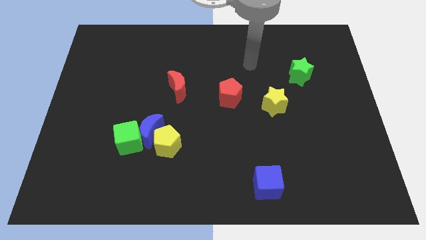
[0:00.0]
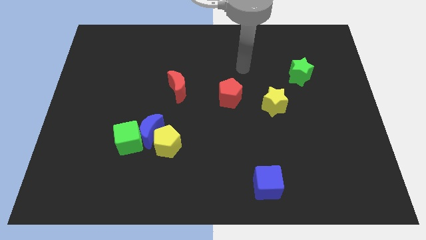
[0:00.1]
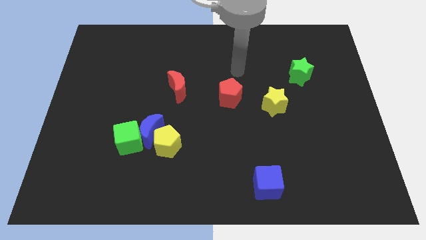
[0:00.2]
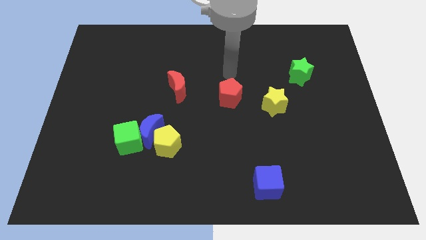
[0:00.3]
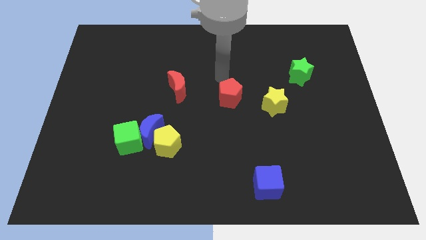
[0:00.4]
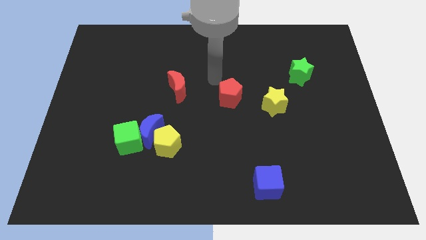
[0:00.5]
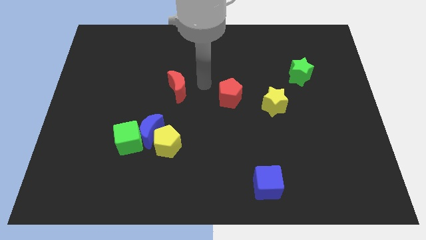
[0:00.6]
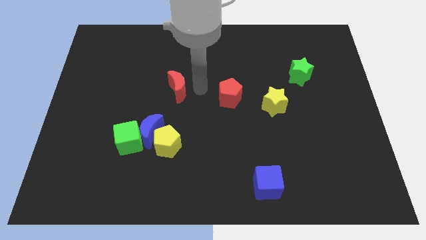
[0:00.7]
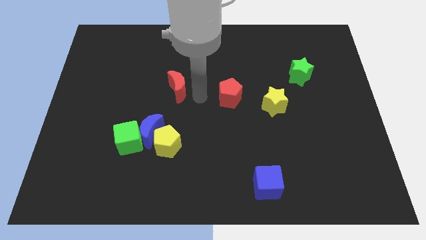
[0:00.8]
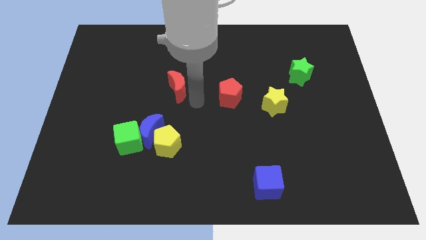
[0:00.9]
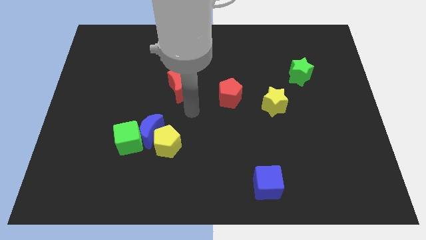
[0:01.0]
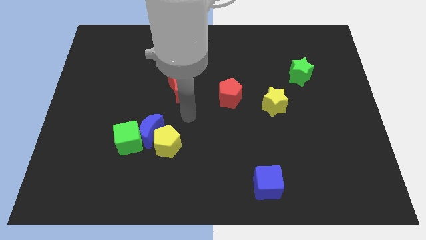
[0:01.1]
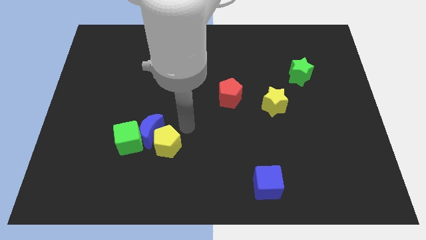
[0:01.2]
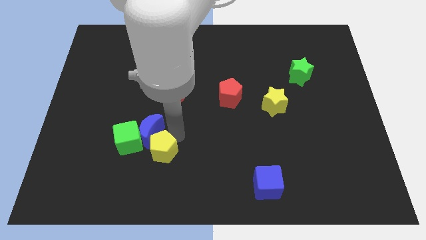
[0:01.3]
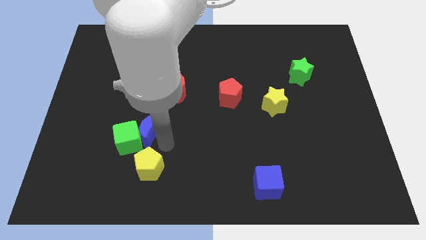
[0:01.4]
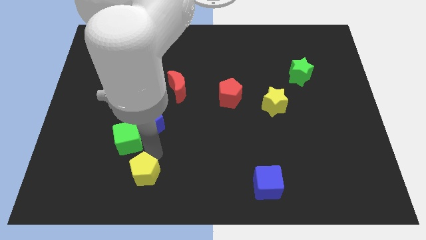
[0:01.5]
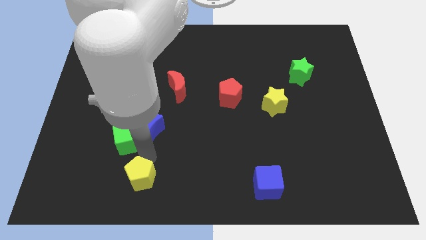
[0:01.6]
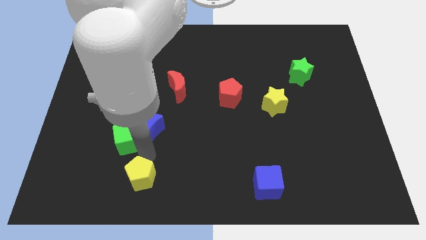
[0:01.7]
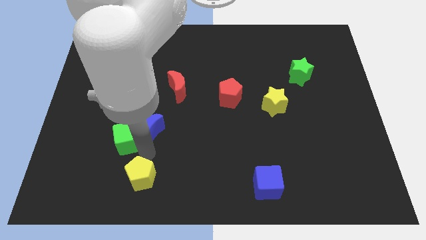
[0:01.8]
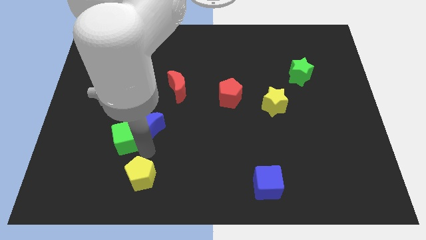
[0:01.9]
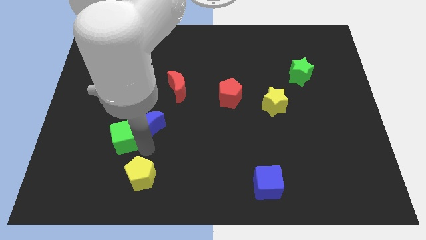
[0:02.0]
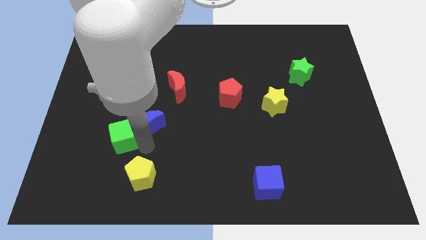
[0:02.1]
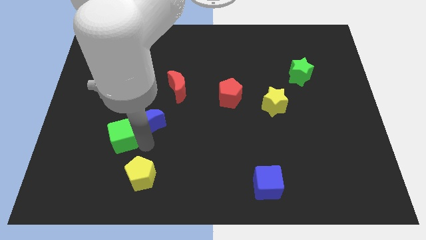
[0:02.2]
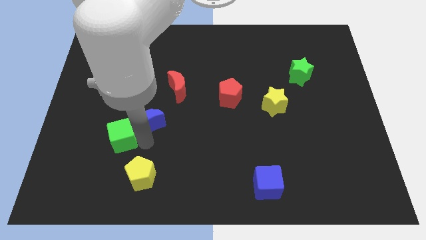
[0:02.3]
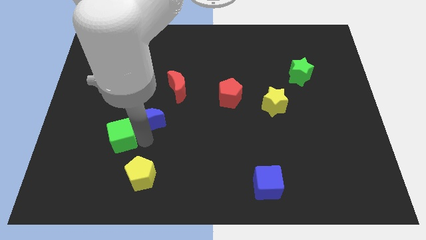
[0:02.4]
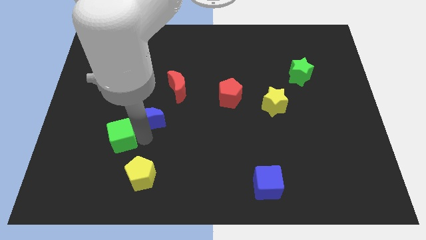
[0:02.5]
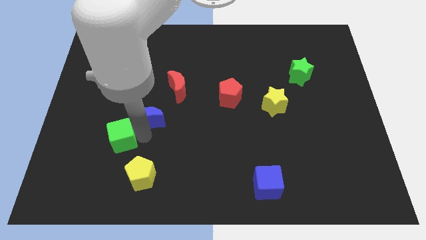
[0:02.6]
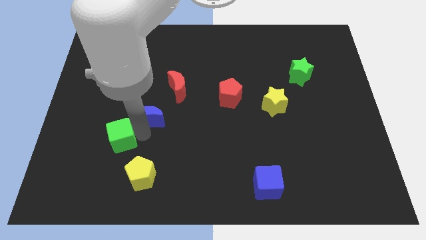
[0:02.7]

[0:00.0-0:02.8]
separate the blue moon from the yellow pentagon and green cube

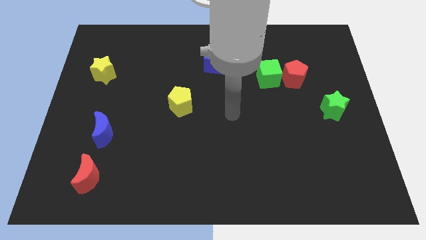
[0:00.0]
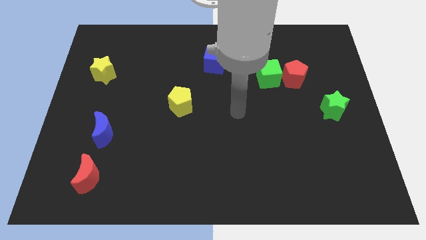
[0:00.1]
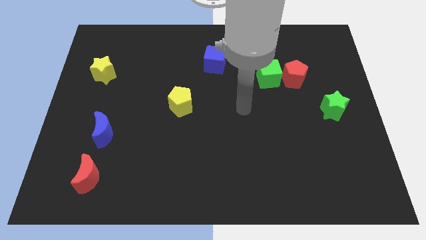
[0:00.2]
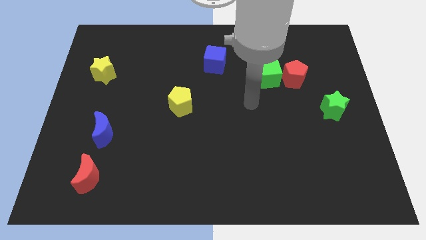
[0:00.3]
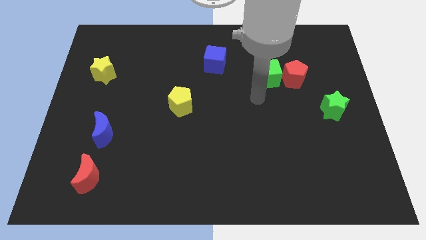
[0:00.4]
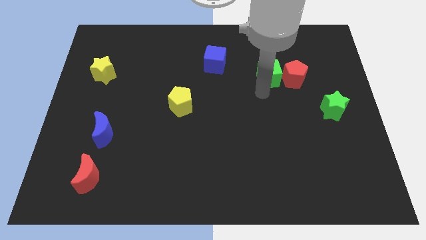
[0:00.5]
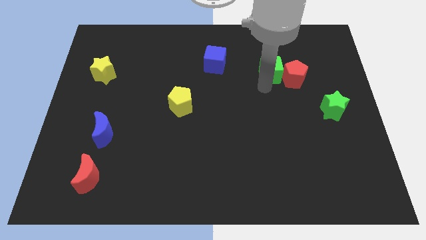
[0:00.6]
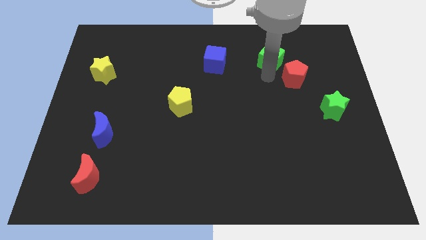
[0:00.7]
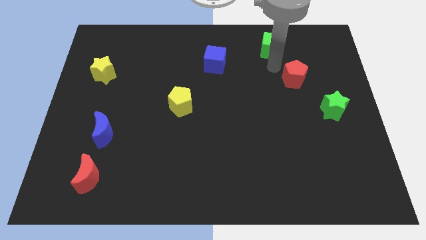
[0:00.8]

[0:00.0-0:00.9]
separate the red pentagon from the green cube

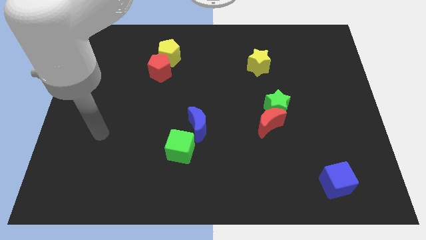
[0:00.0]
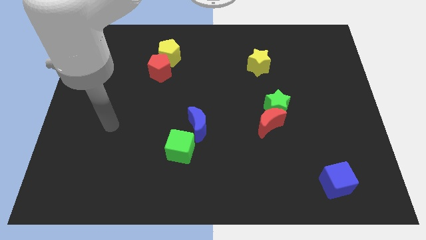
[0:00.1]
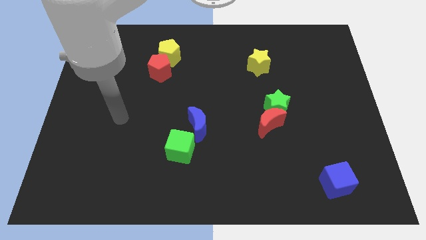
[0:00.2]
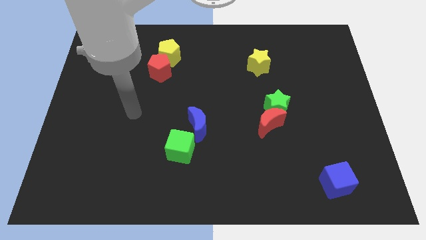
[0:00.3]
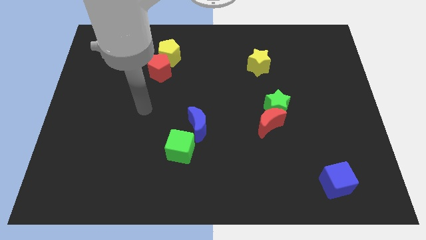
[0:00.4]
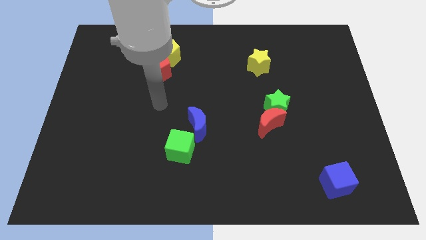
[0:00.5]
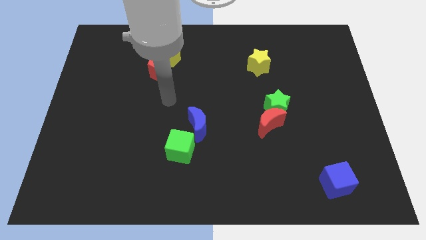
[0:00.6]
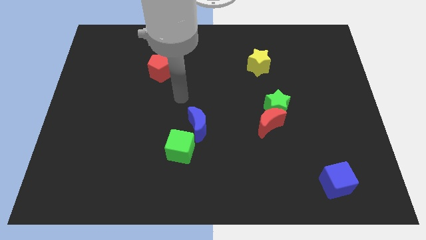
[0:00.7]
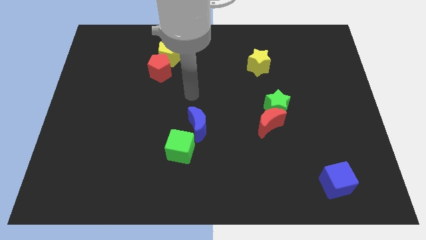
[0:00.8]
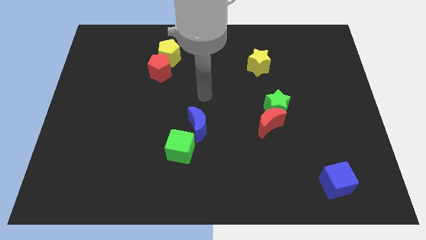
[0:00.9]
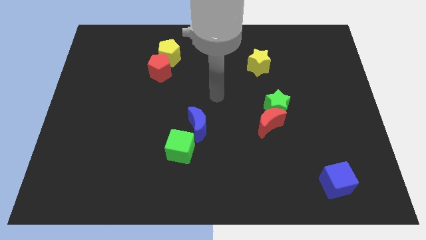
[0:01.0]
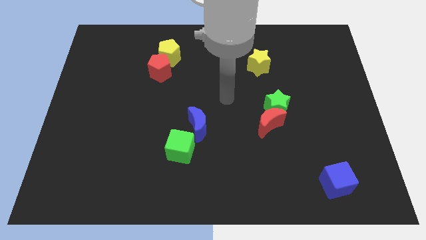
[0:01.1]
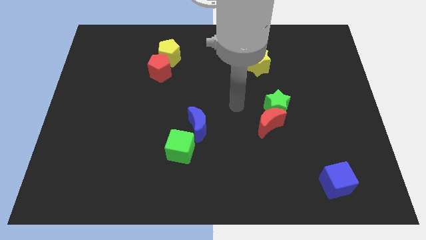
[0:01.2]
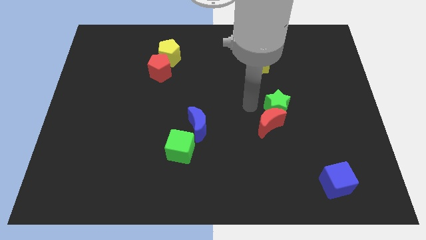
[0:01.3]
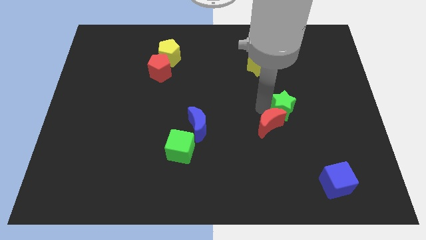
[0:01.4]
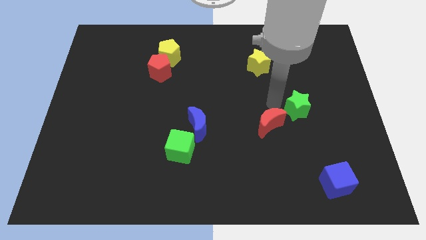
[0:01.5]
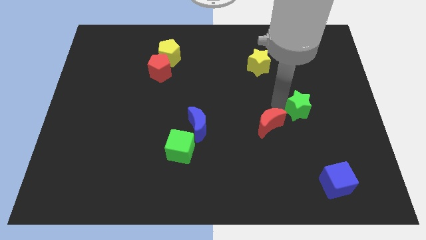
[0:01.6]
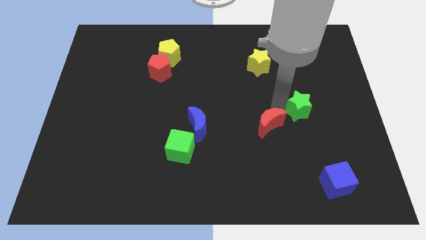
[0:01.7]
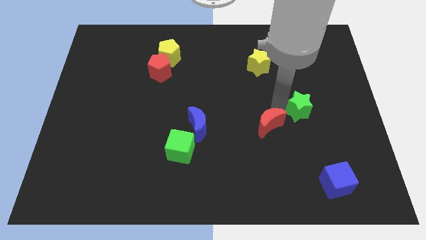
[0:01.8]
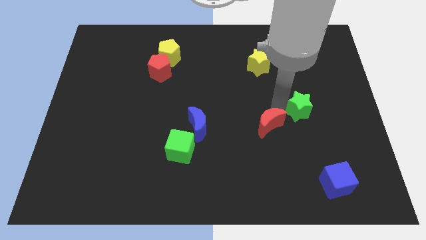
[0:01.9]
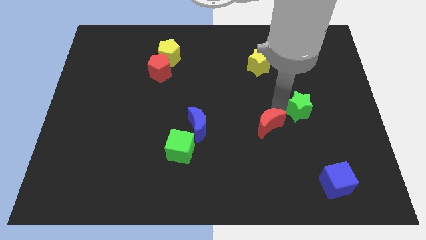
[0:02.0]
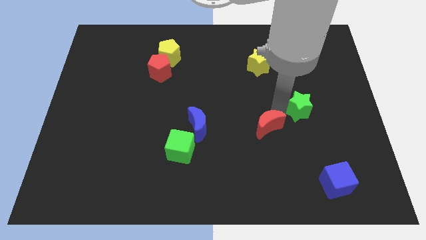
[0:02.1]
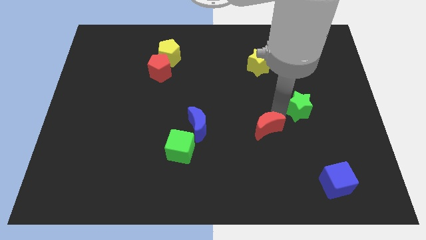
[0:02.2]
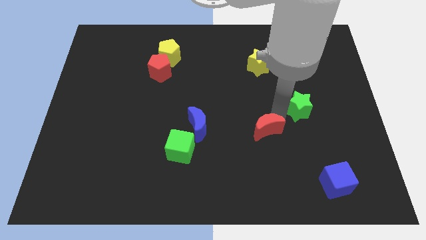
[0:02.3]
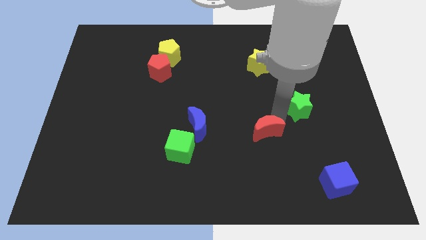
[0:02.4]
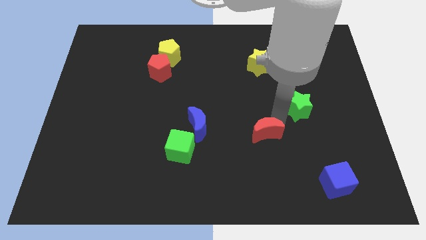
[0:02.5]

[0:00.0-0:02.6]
separate the red moon from the green star

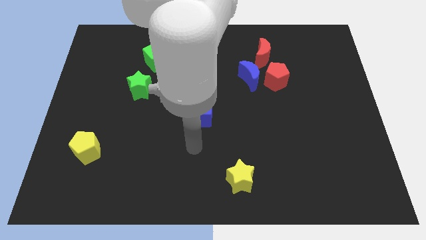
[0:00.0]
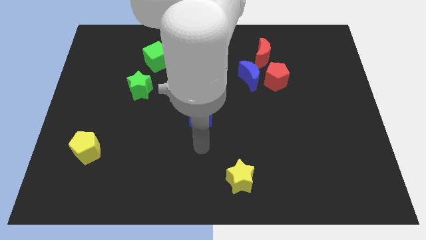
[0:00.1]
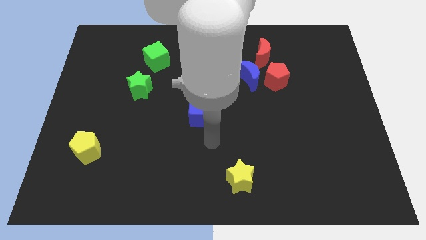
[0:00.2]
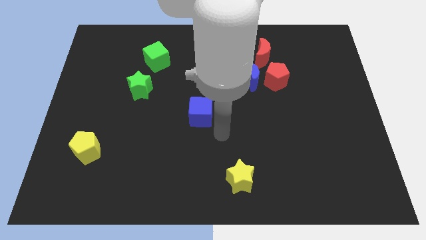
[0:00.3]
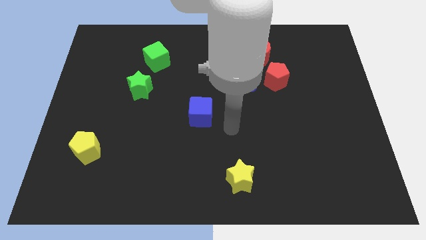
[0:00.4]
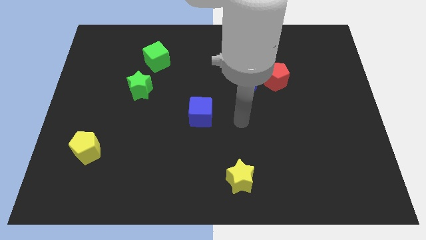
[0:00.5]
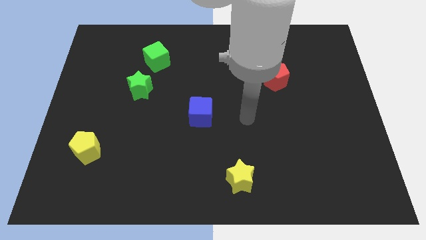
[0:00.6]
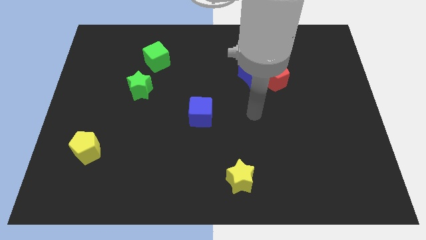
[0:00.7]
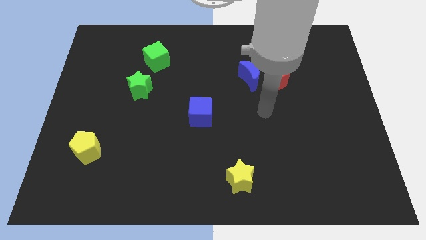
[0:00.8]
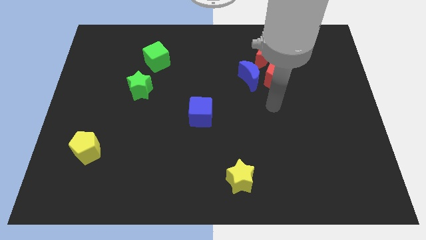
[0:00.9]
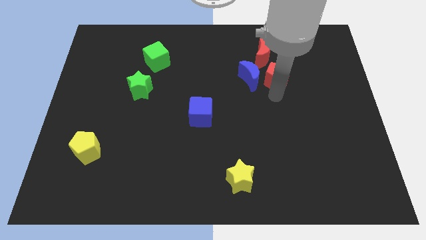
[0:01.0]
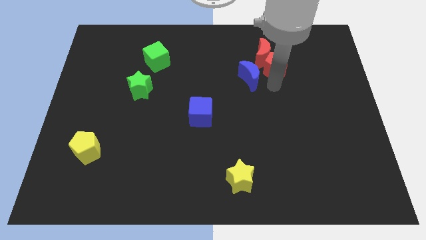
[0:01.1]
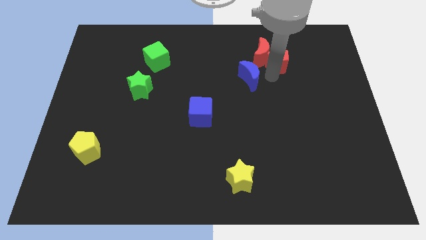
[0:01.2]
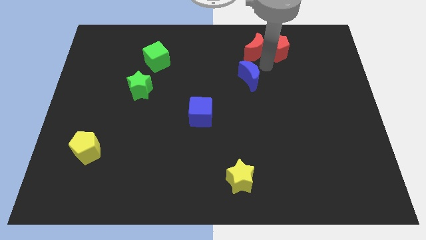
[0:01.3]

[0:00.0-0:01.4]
move the blue moon away from the red pentagon and red moon

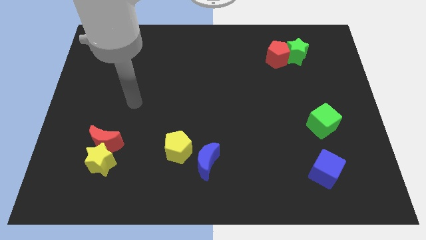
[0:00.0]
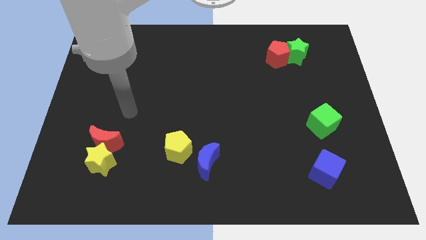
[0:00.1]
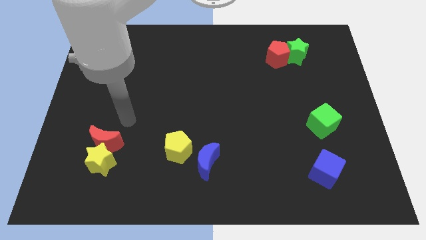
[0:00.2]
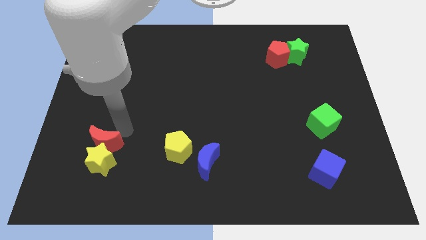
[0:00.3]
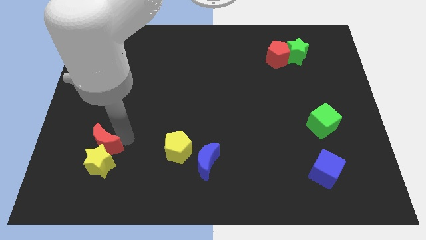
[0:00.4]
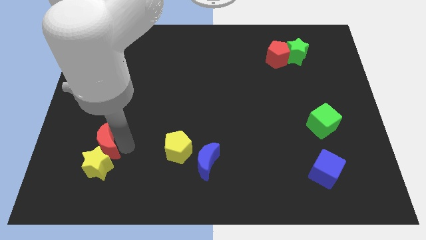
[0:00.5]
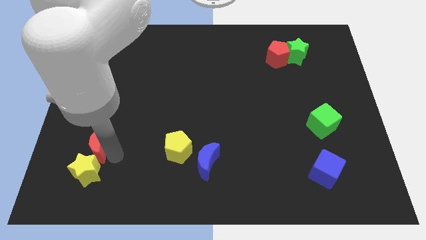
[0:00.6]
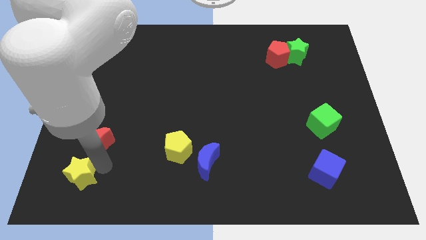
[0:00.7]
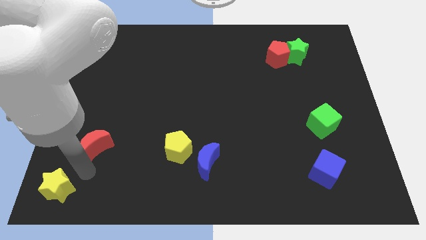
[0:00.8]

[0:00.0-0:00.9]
separate the red moon from the yellow star

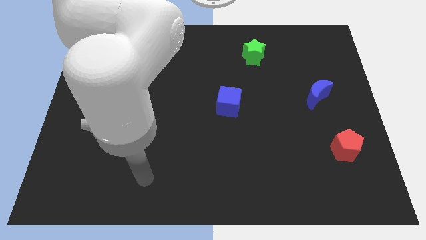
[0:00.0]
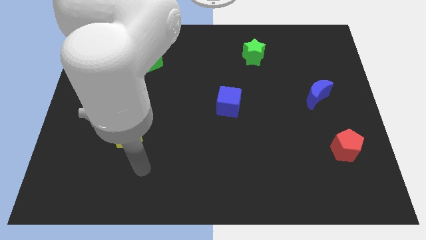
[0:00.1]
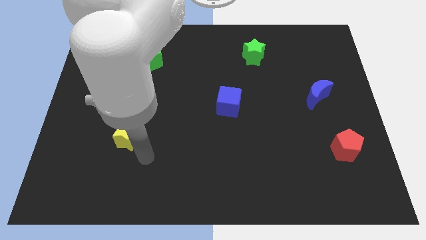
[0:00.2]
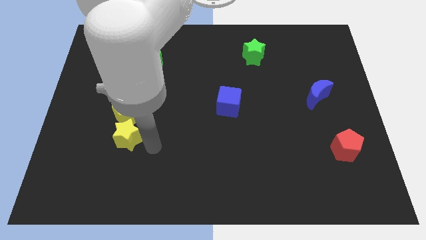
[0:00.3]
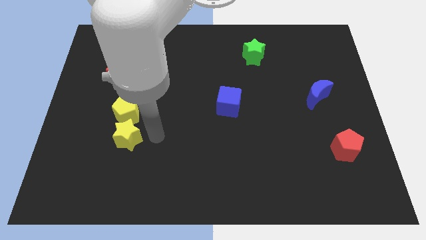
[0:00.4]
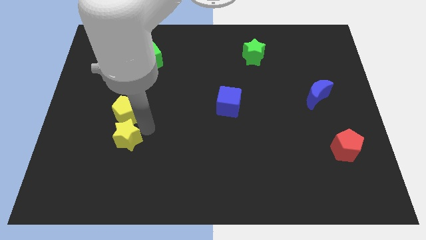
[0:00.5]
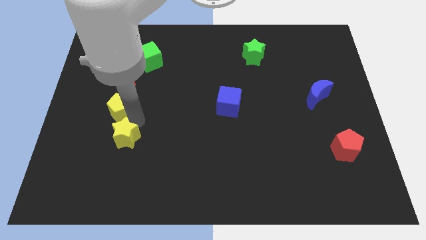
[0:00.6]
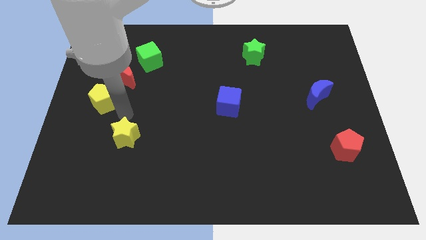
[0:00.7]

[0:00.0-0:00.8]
pull the yellow star apart from the yellow pentagon
